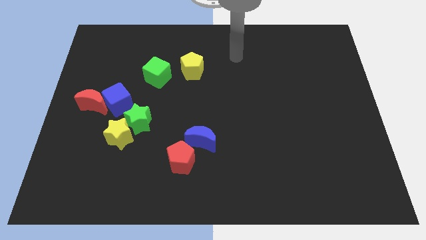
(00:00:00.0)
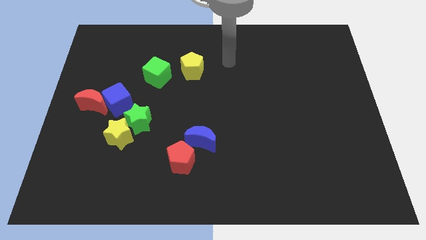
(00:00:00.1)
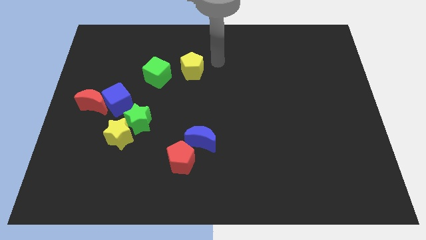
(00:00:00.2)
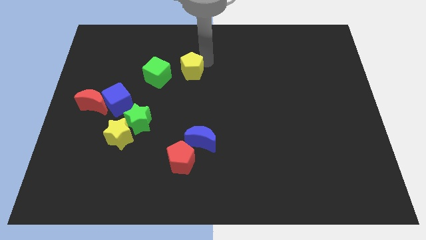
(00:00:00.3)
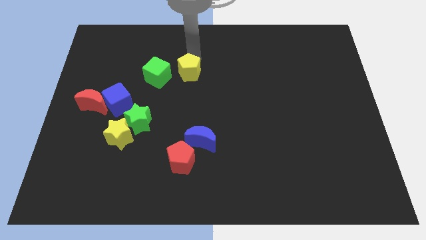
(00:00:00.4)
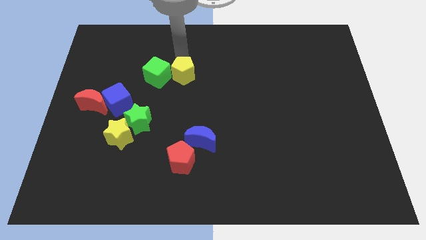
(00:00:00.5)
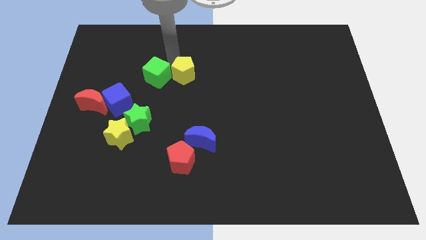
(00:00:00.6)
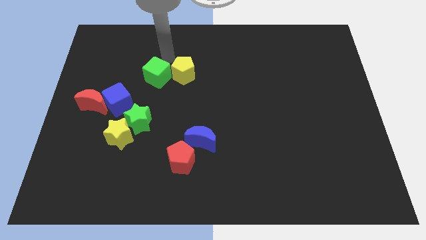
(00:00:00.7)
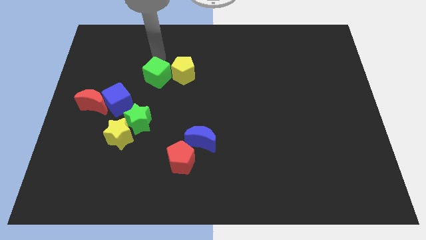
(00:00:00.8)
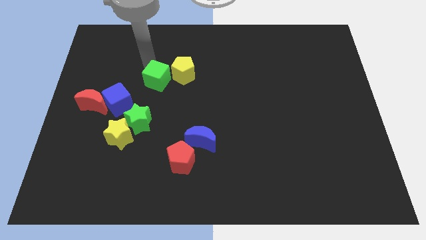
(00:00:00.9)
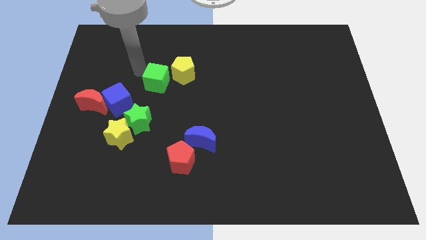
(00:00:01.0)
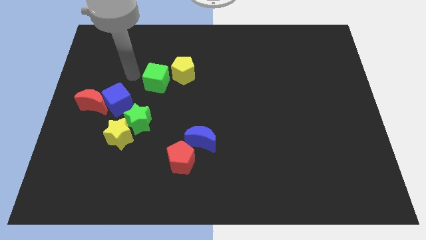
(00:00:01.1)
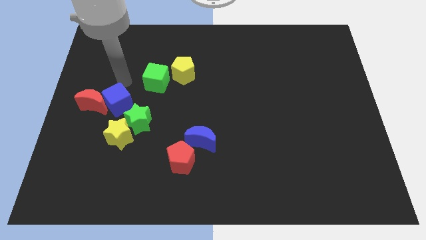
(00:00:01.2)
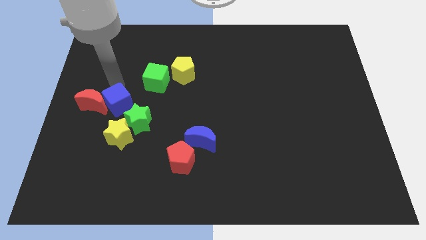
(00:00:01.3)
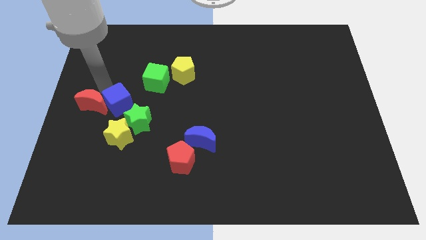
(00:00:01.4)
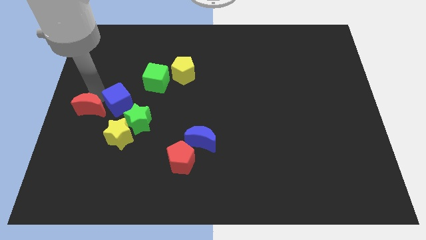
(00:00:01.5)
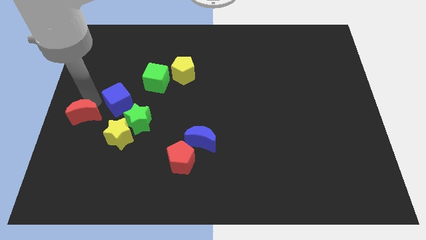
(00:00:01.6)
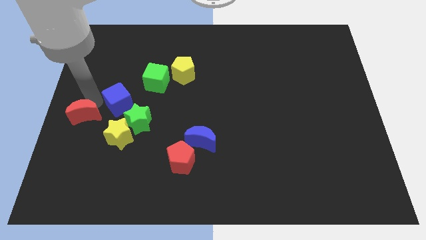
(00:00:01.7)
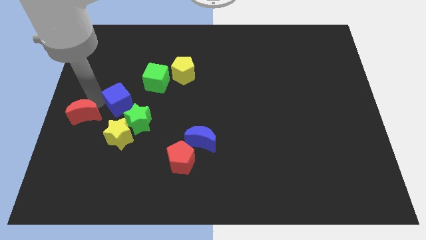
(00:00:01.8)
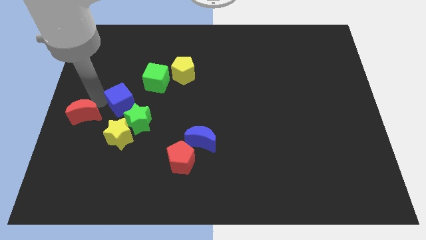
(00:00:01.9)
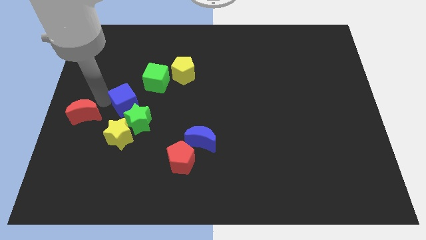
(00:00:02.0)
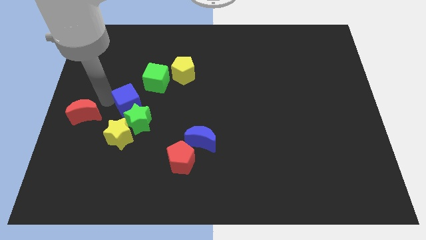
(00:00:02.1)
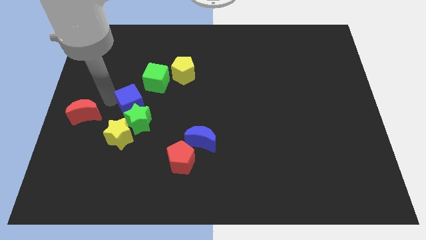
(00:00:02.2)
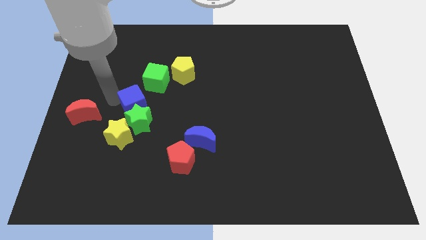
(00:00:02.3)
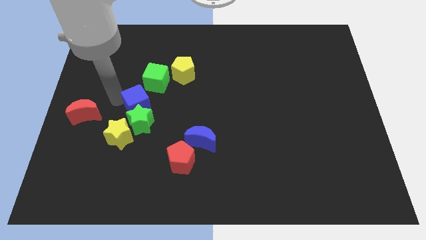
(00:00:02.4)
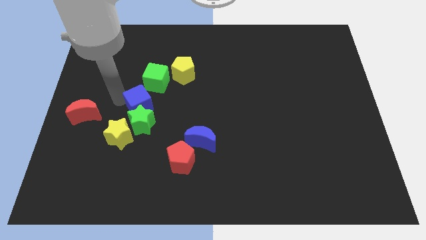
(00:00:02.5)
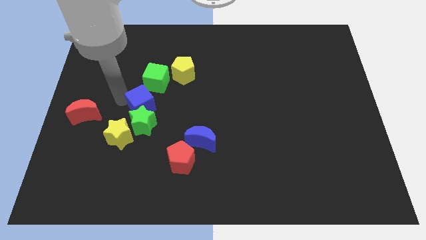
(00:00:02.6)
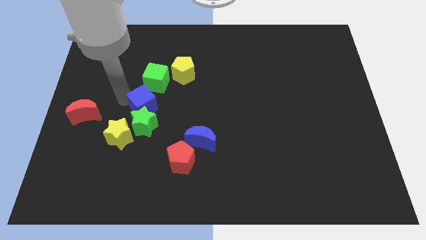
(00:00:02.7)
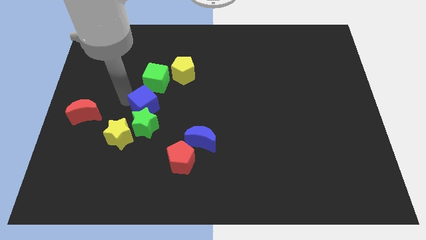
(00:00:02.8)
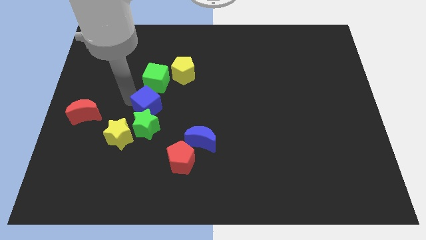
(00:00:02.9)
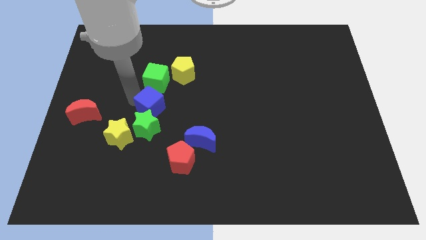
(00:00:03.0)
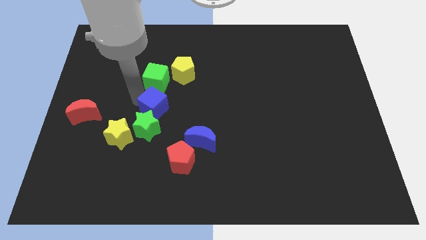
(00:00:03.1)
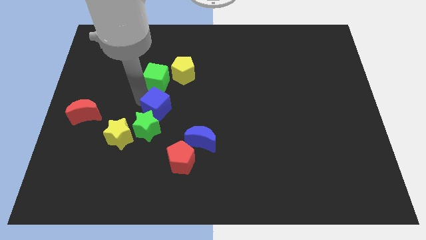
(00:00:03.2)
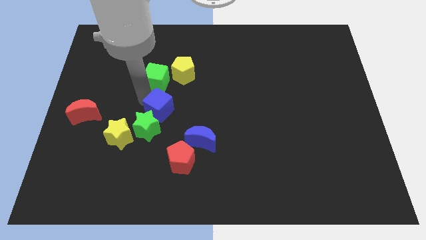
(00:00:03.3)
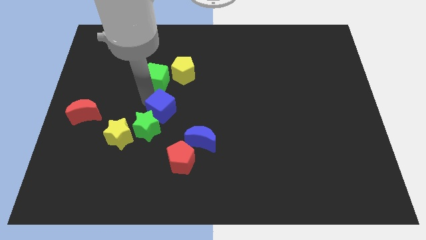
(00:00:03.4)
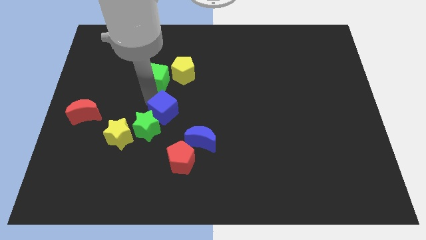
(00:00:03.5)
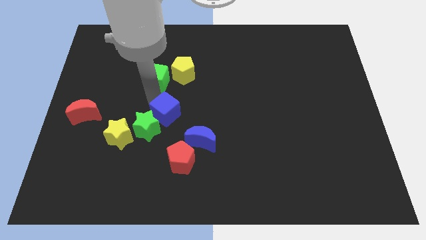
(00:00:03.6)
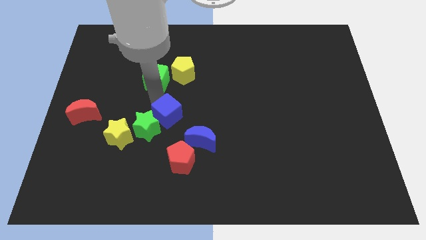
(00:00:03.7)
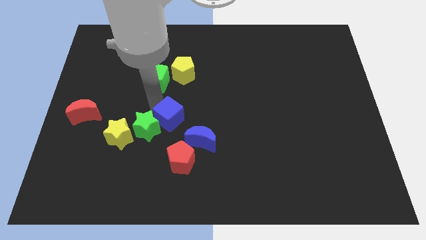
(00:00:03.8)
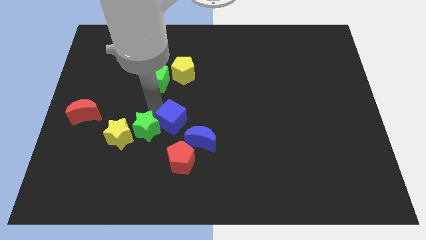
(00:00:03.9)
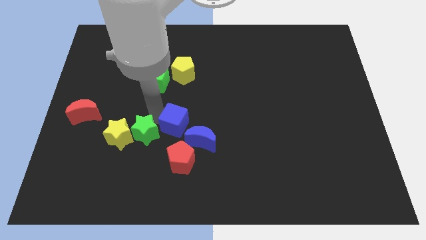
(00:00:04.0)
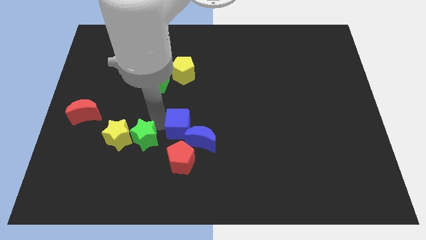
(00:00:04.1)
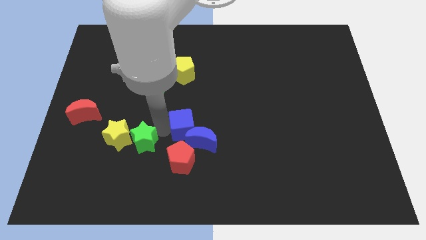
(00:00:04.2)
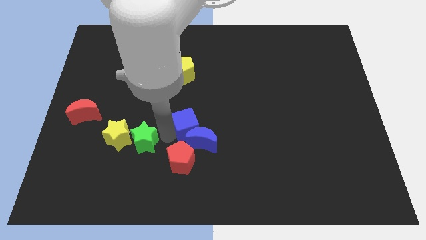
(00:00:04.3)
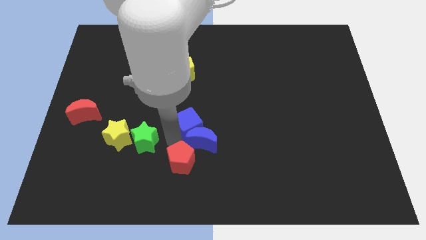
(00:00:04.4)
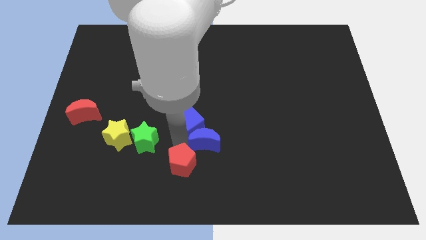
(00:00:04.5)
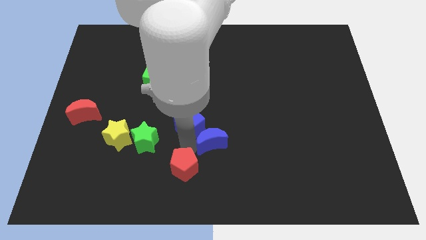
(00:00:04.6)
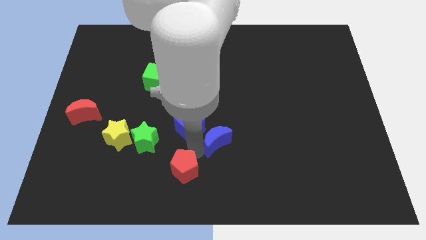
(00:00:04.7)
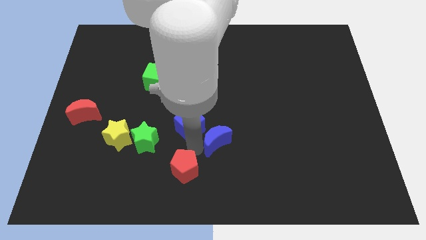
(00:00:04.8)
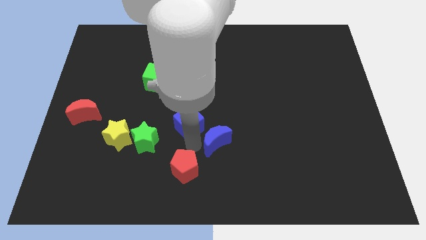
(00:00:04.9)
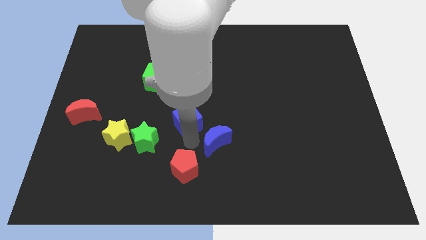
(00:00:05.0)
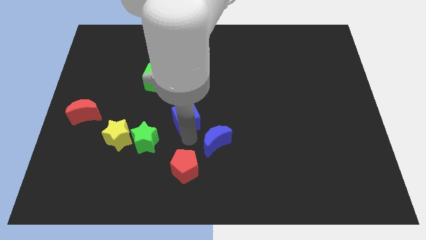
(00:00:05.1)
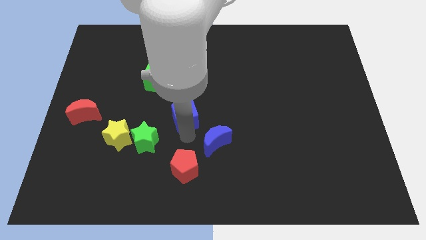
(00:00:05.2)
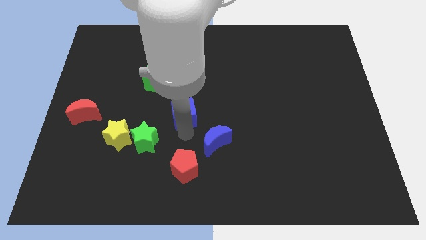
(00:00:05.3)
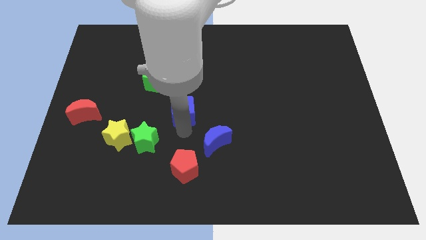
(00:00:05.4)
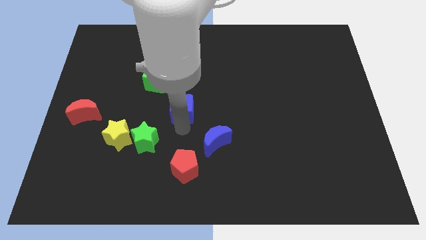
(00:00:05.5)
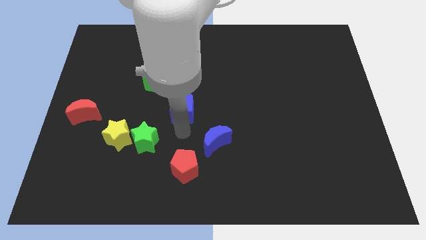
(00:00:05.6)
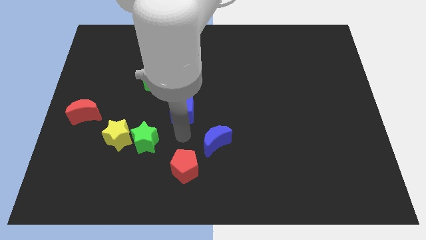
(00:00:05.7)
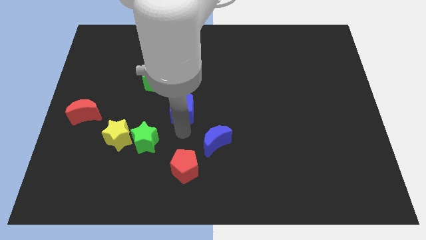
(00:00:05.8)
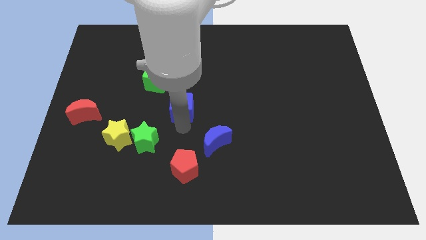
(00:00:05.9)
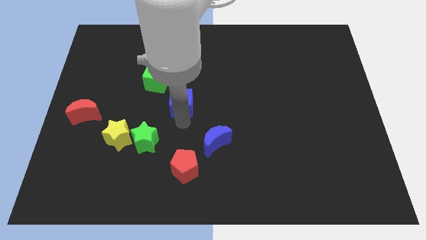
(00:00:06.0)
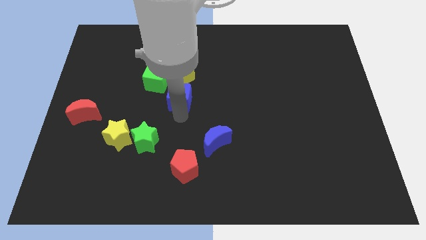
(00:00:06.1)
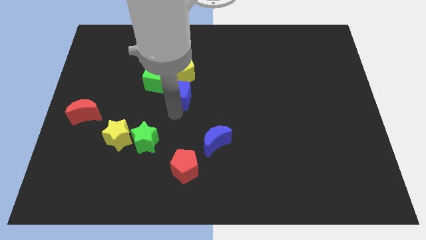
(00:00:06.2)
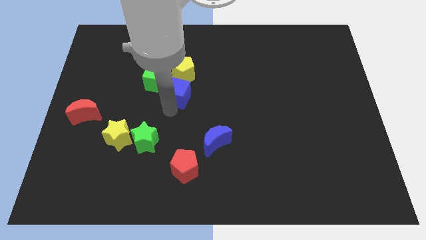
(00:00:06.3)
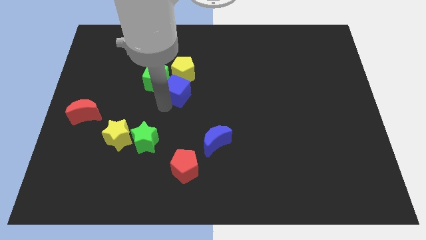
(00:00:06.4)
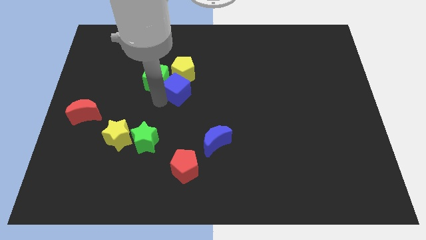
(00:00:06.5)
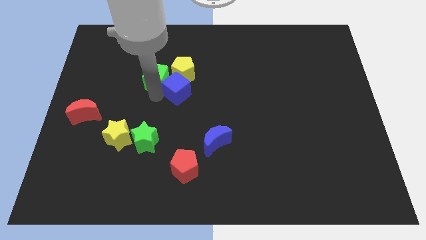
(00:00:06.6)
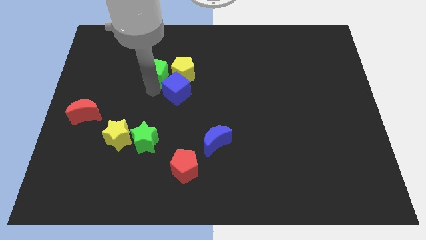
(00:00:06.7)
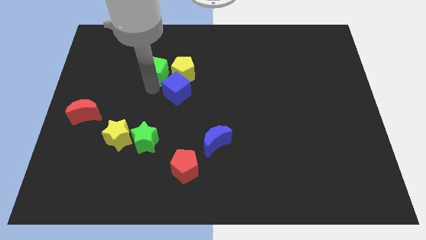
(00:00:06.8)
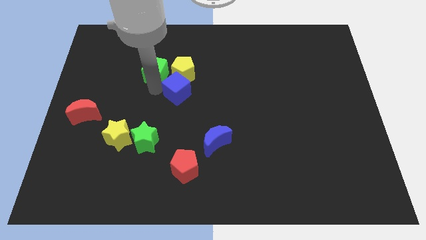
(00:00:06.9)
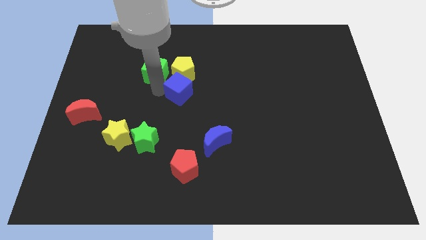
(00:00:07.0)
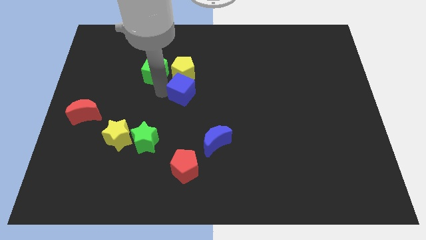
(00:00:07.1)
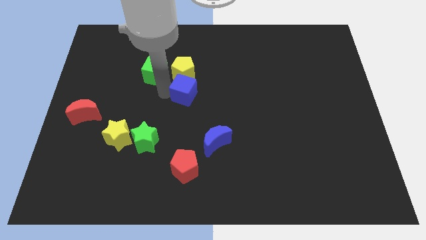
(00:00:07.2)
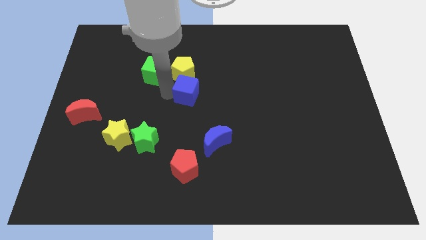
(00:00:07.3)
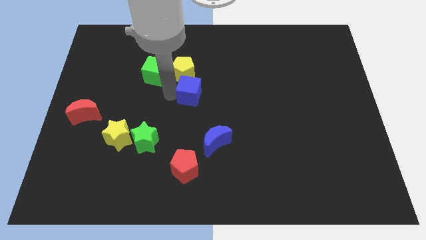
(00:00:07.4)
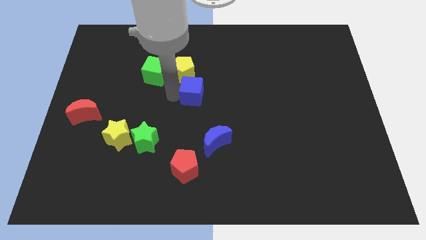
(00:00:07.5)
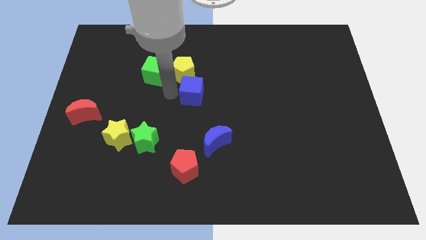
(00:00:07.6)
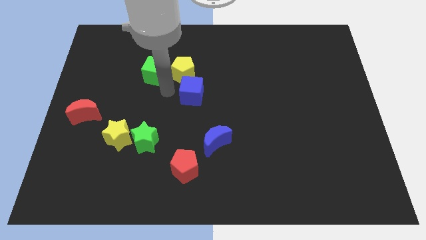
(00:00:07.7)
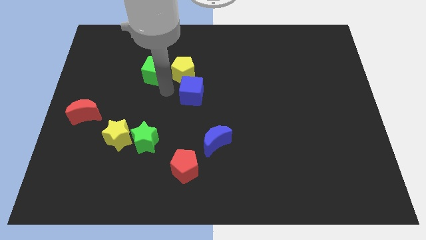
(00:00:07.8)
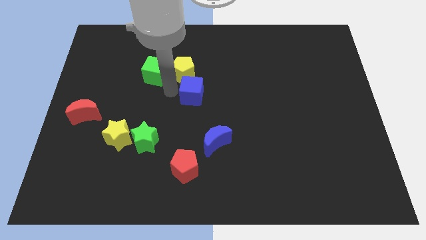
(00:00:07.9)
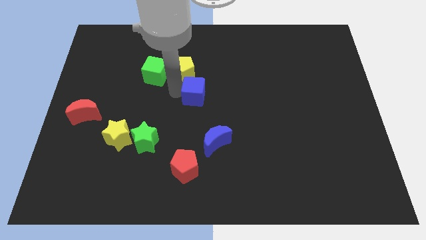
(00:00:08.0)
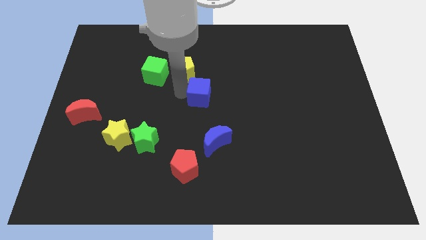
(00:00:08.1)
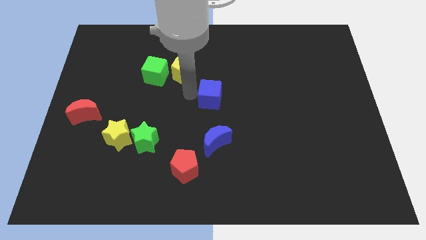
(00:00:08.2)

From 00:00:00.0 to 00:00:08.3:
push the blue cube right
